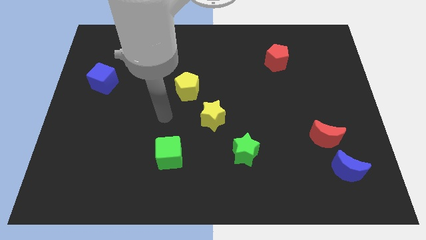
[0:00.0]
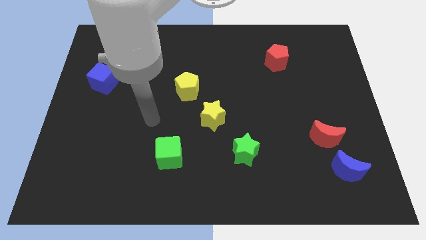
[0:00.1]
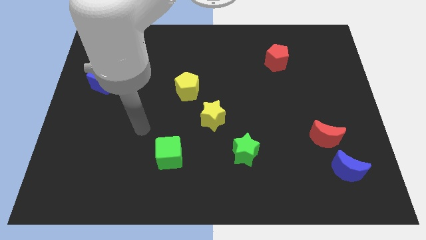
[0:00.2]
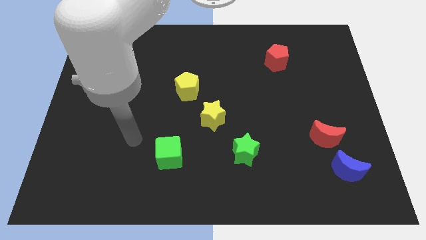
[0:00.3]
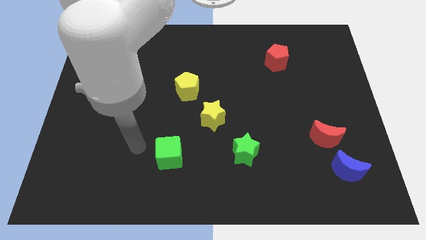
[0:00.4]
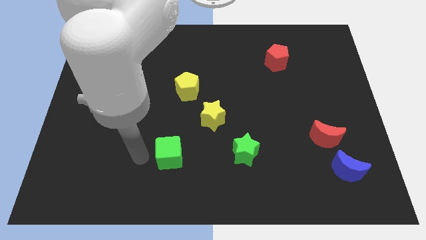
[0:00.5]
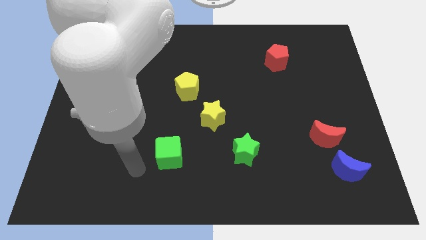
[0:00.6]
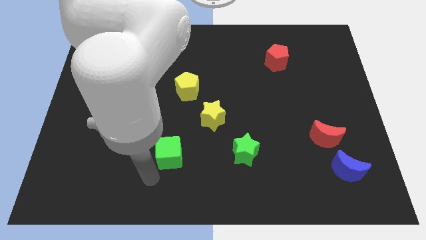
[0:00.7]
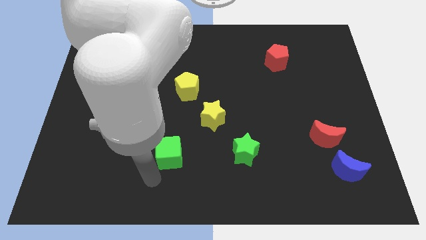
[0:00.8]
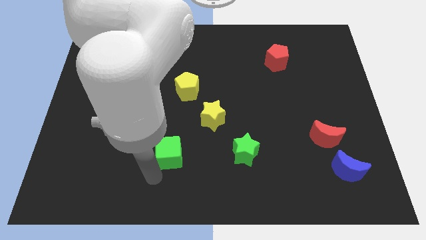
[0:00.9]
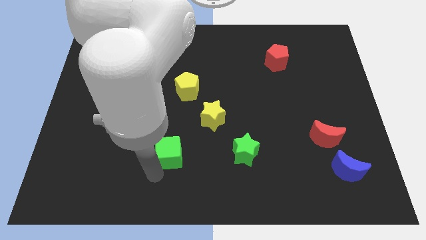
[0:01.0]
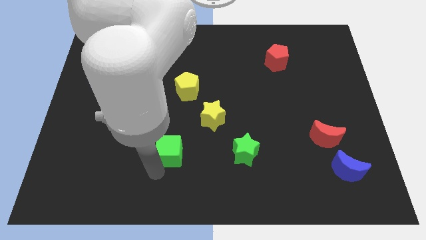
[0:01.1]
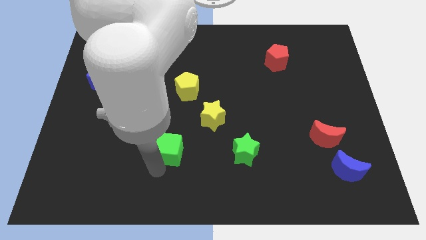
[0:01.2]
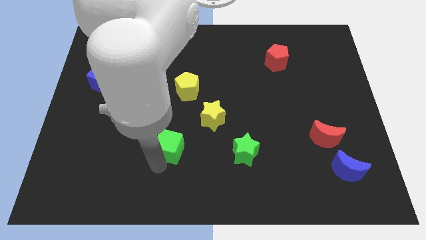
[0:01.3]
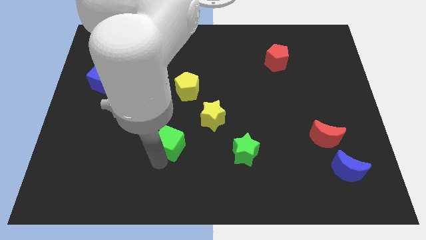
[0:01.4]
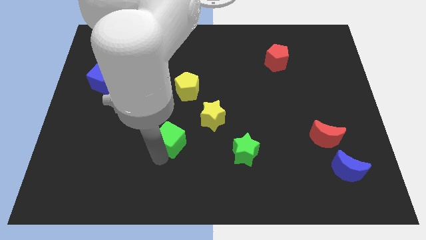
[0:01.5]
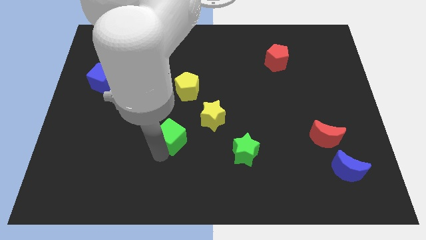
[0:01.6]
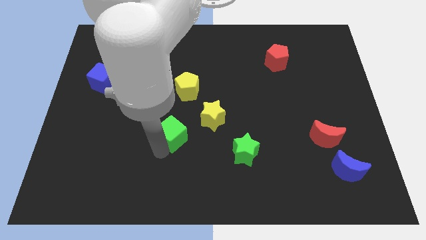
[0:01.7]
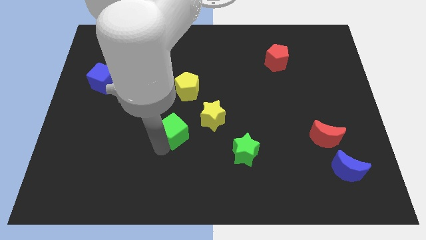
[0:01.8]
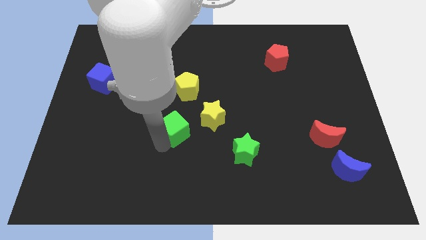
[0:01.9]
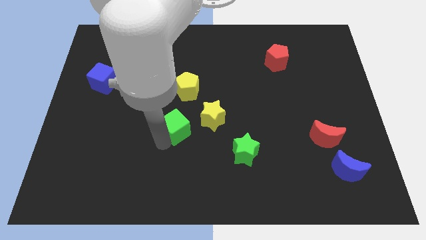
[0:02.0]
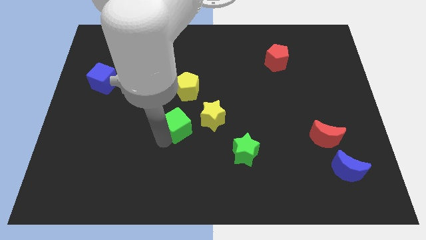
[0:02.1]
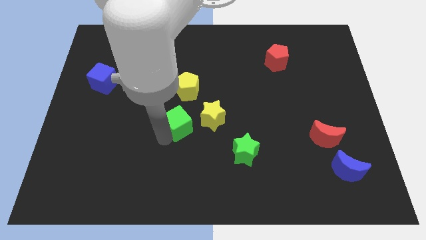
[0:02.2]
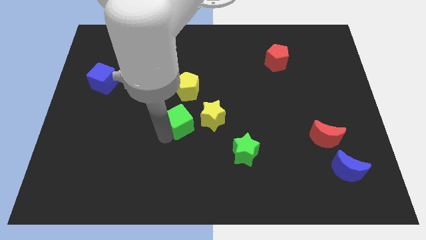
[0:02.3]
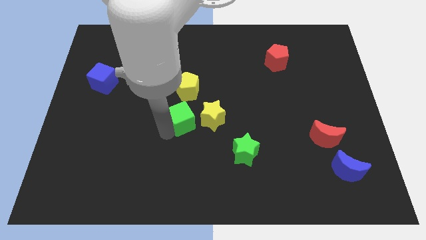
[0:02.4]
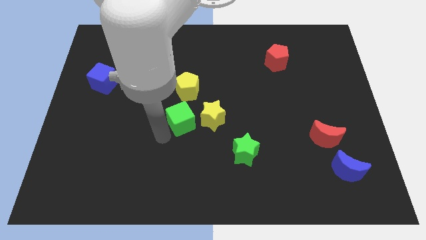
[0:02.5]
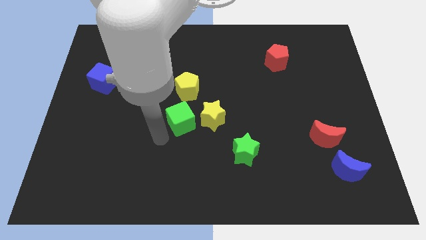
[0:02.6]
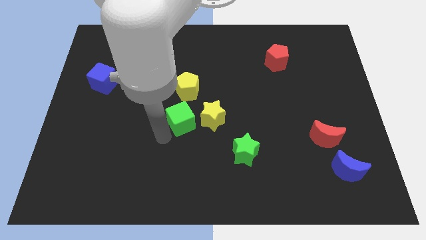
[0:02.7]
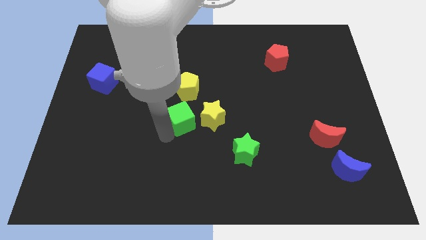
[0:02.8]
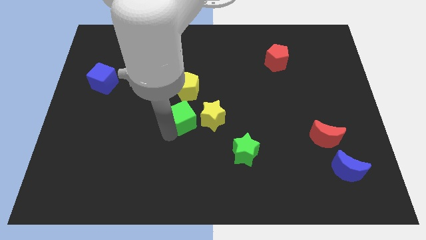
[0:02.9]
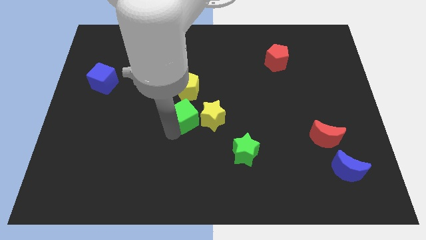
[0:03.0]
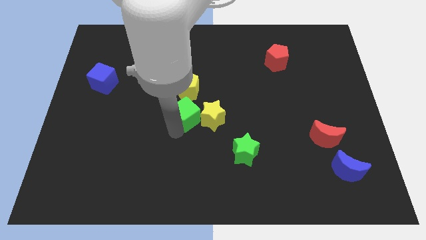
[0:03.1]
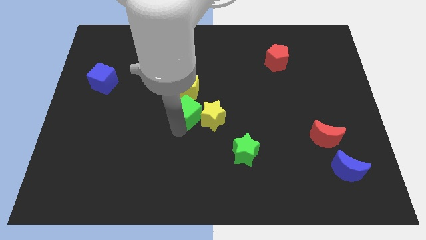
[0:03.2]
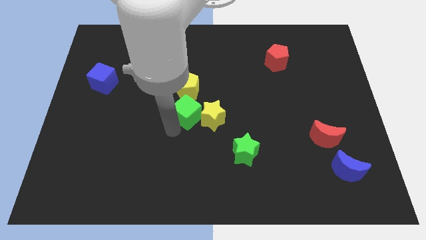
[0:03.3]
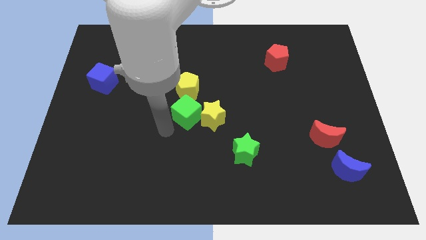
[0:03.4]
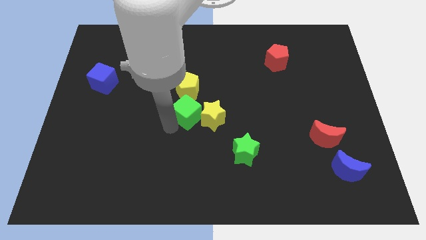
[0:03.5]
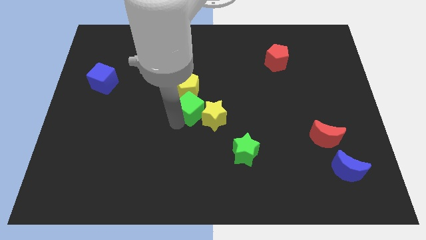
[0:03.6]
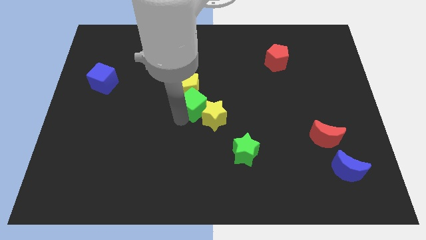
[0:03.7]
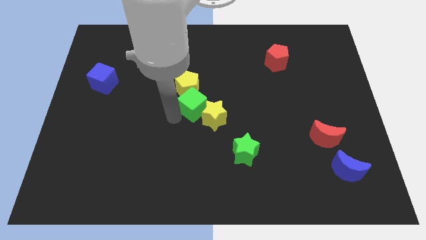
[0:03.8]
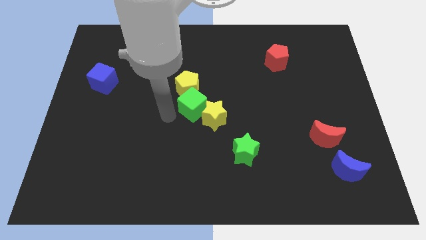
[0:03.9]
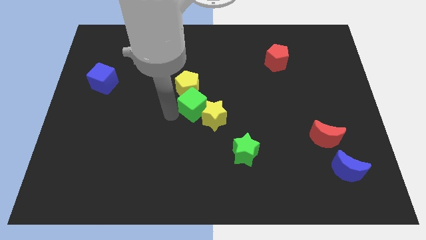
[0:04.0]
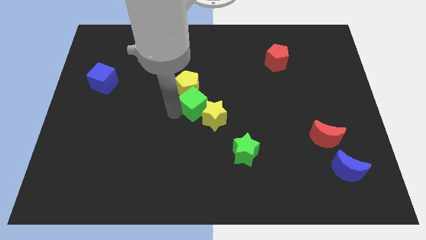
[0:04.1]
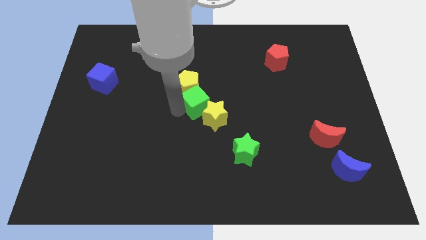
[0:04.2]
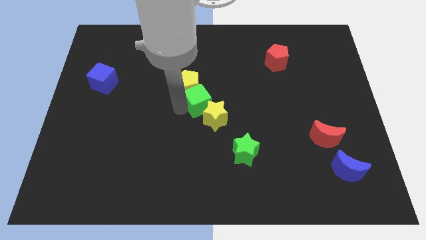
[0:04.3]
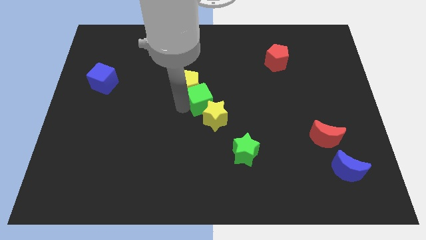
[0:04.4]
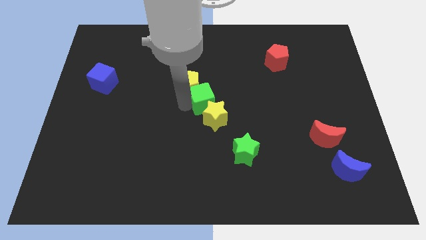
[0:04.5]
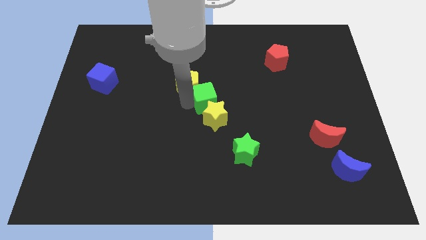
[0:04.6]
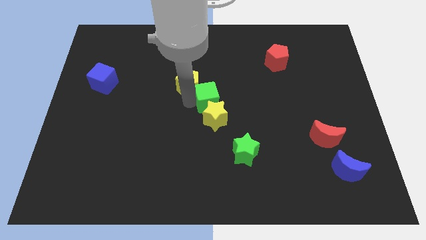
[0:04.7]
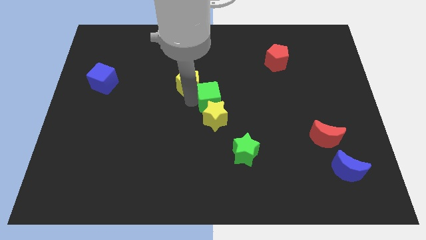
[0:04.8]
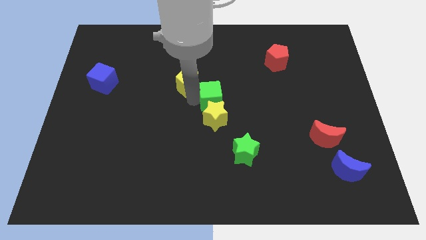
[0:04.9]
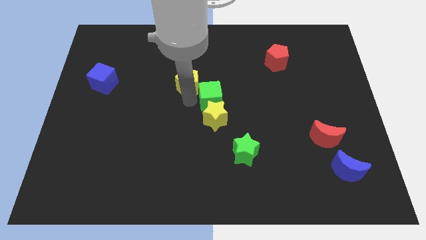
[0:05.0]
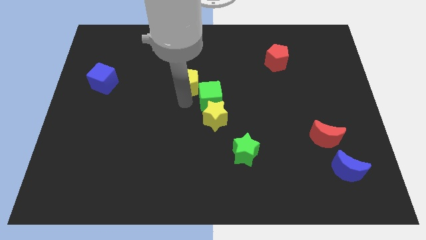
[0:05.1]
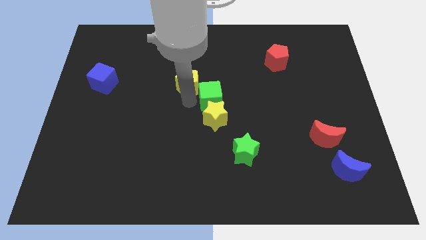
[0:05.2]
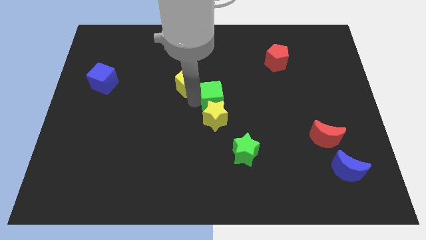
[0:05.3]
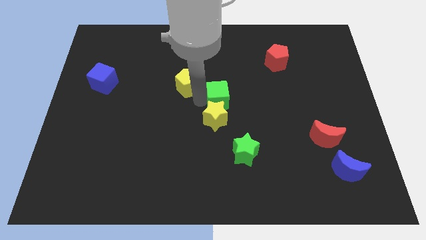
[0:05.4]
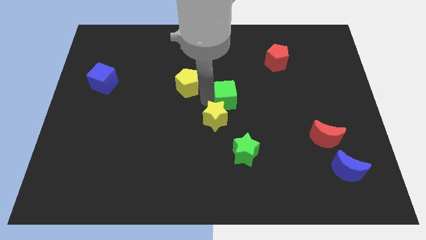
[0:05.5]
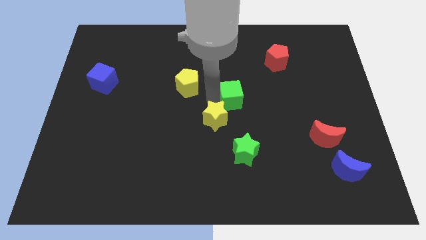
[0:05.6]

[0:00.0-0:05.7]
push the green cube up and to the right

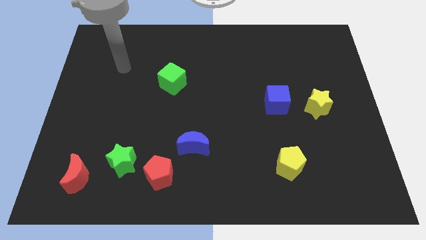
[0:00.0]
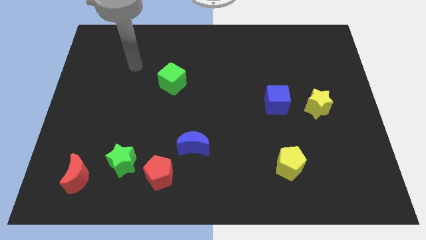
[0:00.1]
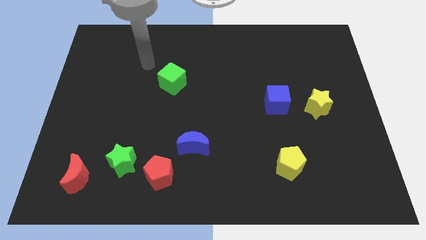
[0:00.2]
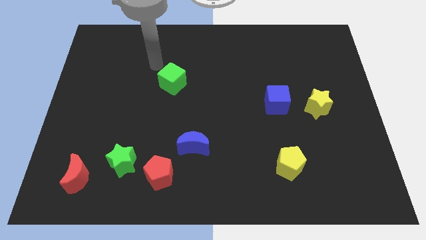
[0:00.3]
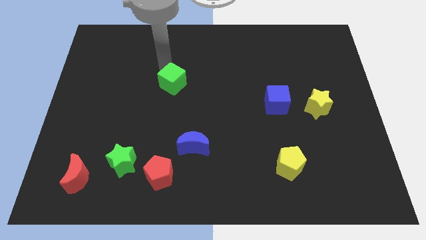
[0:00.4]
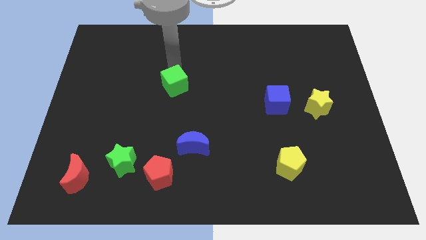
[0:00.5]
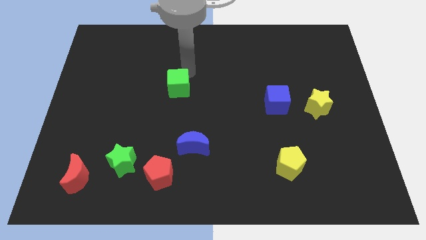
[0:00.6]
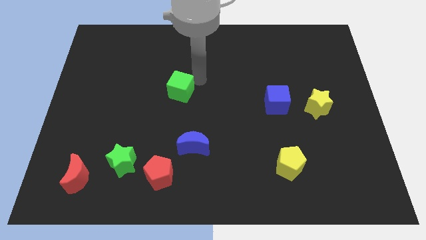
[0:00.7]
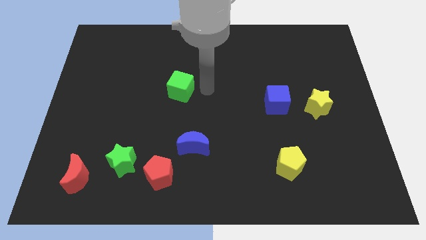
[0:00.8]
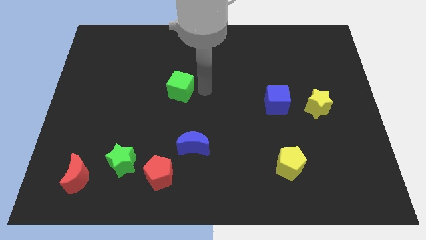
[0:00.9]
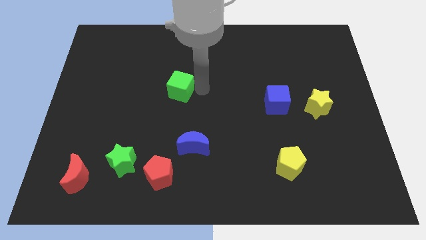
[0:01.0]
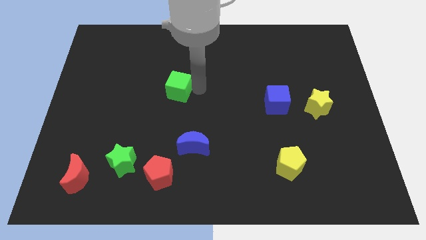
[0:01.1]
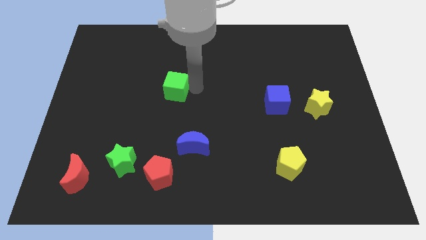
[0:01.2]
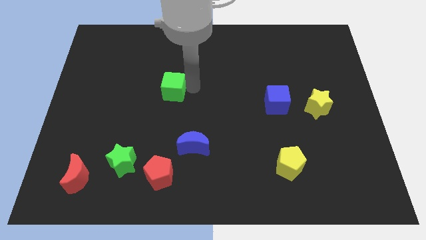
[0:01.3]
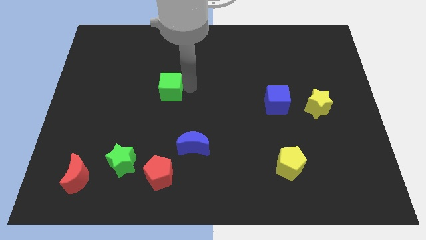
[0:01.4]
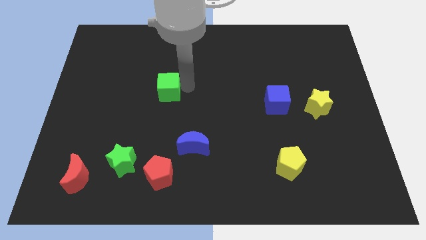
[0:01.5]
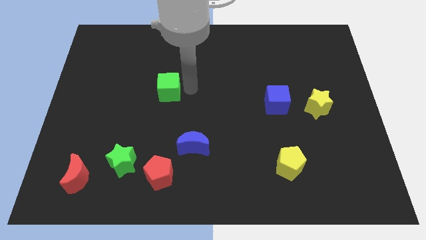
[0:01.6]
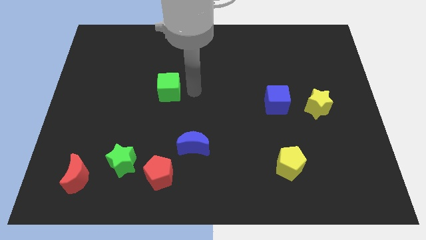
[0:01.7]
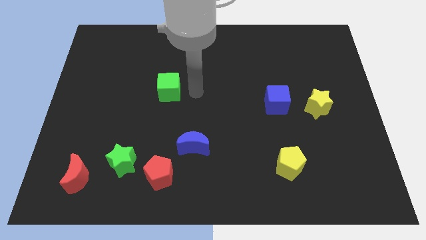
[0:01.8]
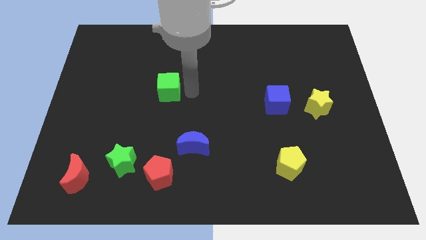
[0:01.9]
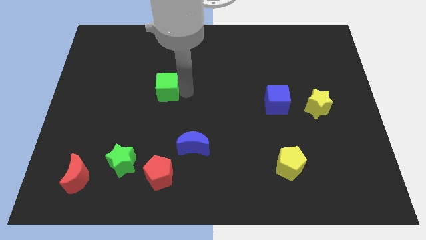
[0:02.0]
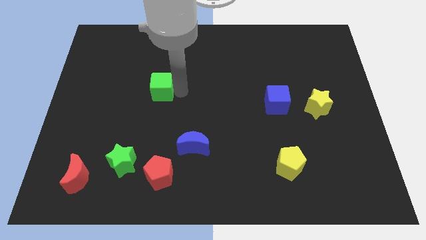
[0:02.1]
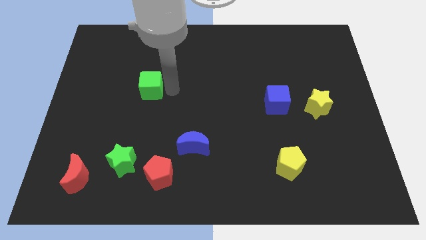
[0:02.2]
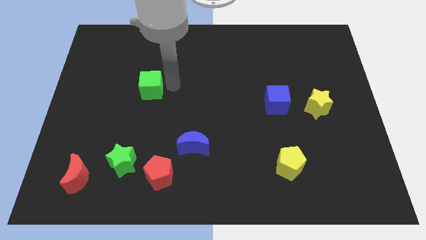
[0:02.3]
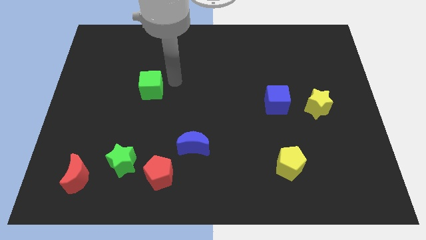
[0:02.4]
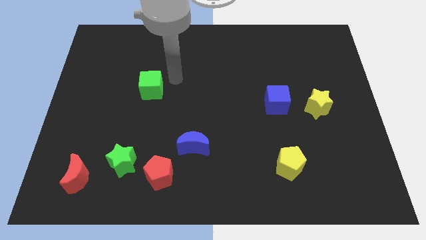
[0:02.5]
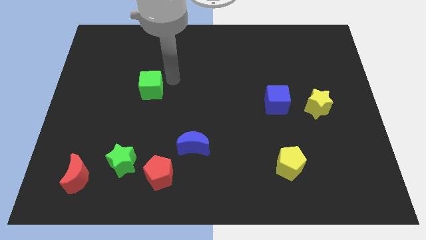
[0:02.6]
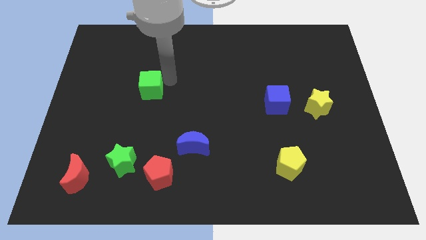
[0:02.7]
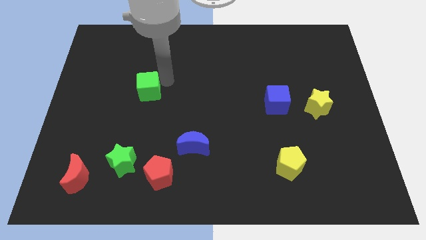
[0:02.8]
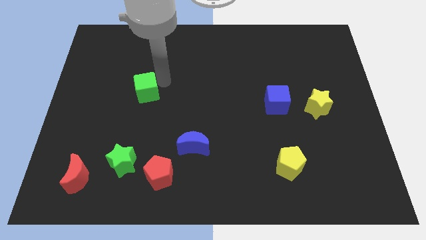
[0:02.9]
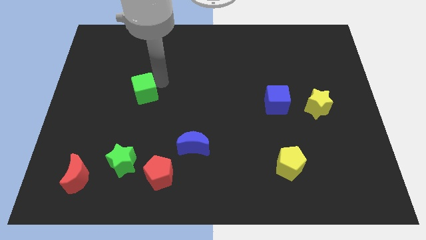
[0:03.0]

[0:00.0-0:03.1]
push the green cube slightly downwards and to the left
